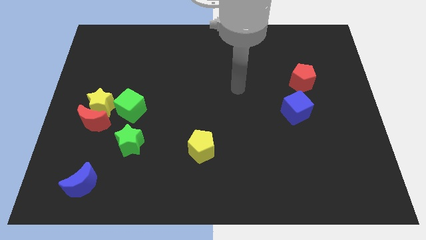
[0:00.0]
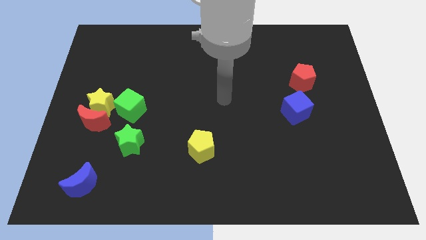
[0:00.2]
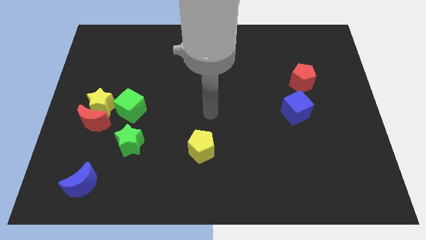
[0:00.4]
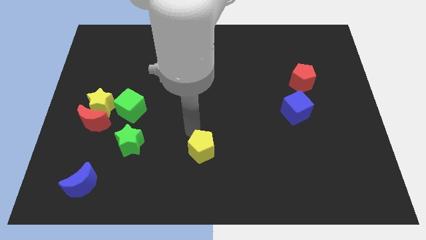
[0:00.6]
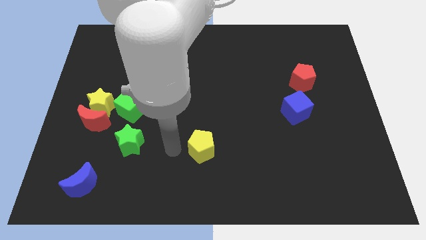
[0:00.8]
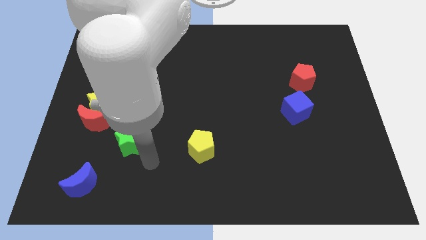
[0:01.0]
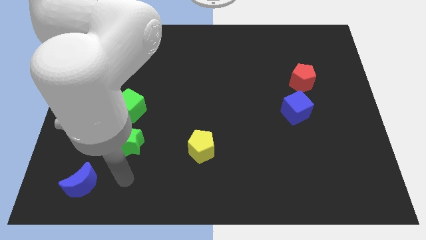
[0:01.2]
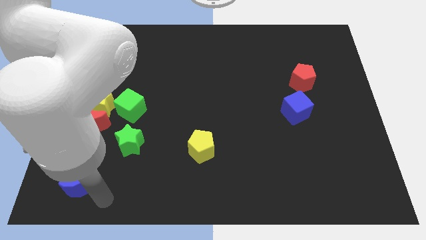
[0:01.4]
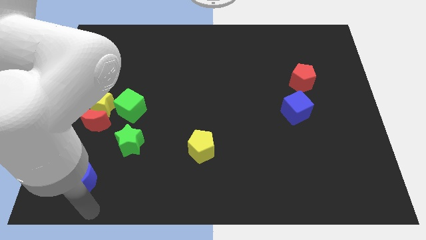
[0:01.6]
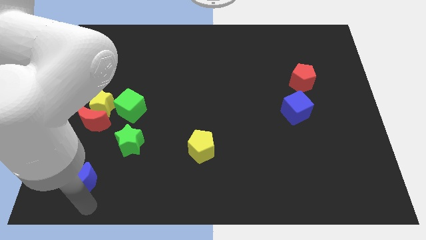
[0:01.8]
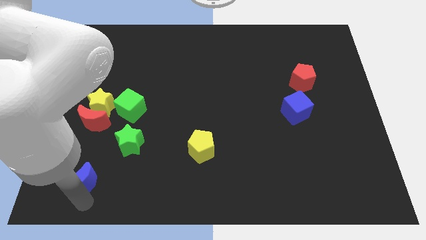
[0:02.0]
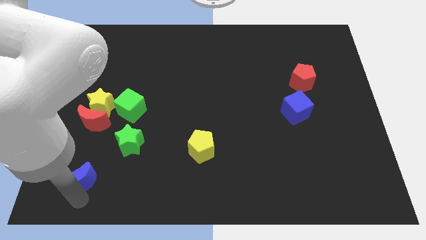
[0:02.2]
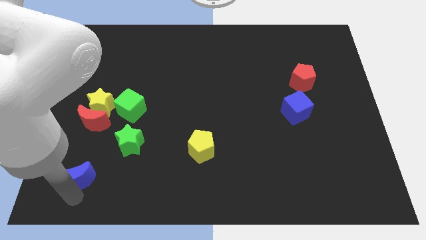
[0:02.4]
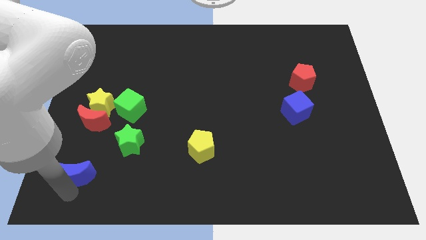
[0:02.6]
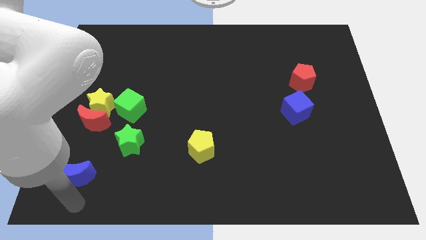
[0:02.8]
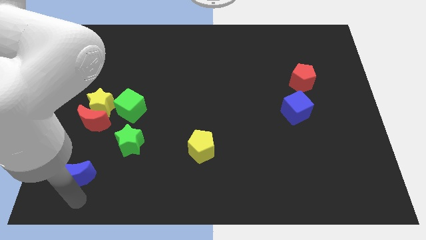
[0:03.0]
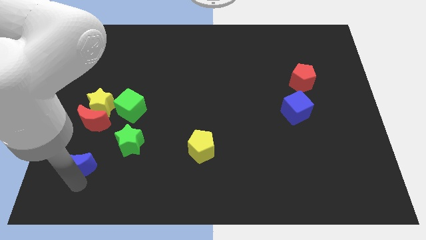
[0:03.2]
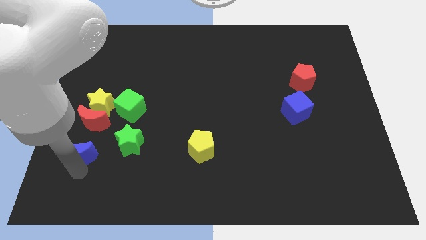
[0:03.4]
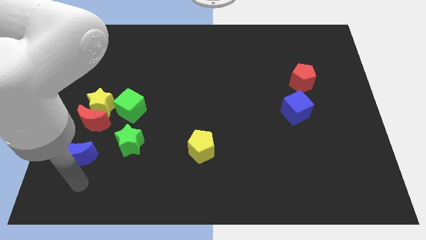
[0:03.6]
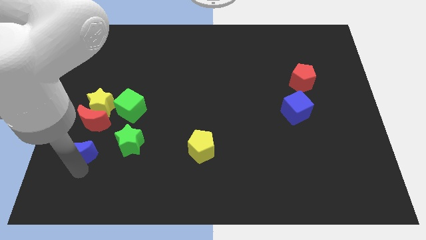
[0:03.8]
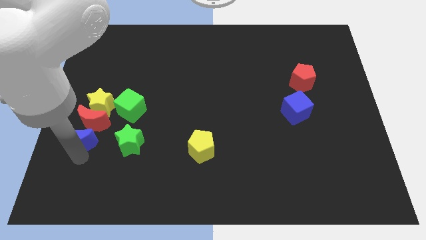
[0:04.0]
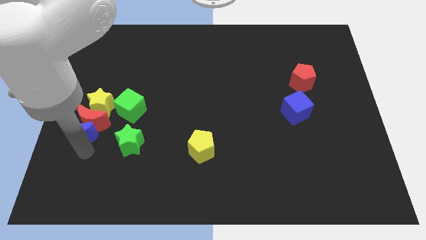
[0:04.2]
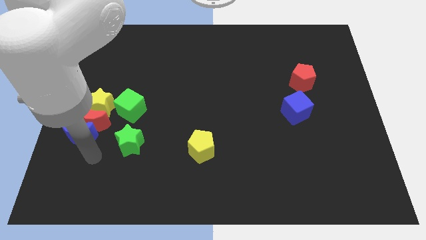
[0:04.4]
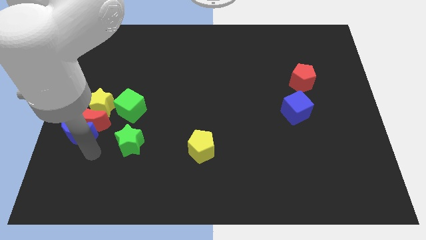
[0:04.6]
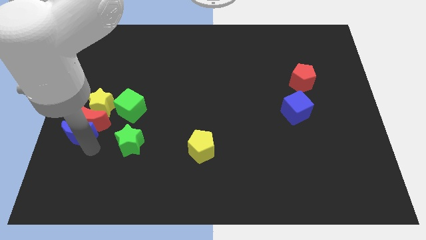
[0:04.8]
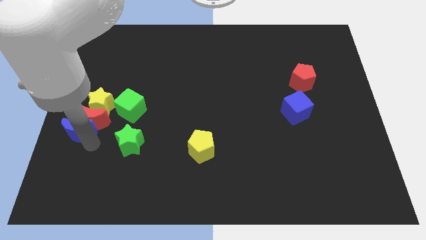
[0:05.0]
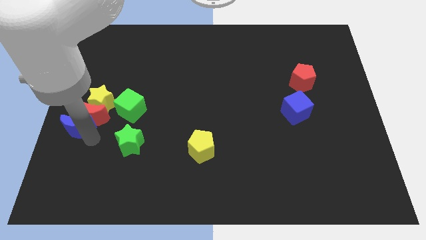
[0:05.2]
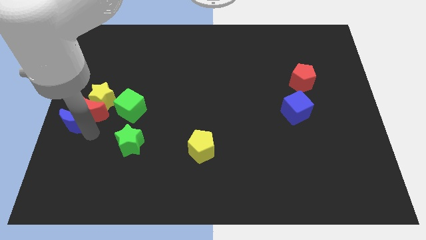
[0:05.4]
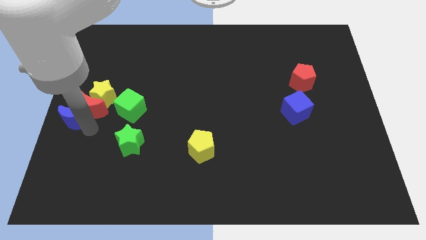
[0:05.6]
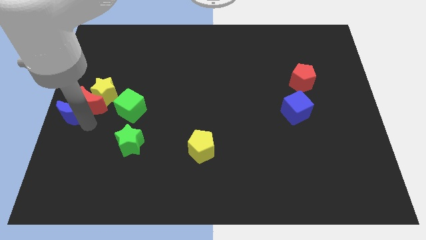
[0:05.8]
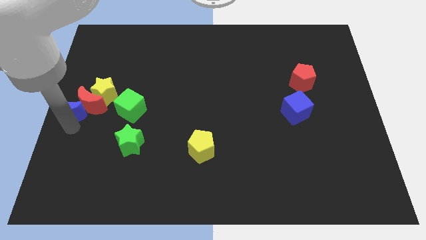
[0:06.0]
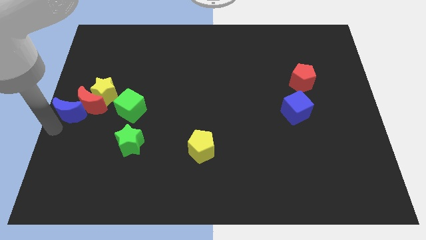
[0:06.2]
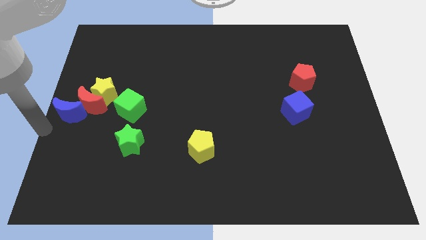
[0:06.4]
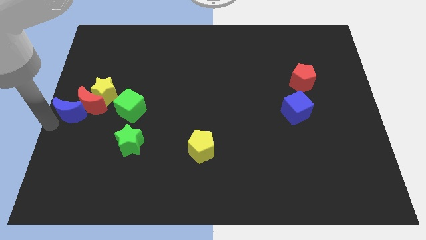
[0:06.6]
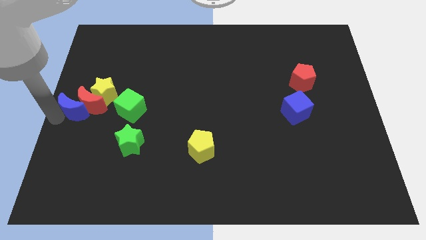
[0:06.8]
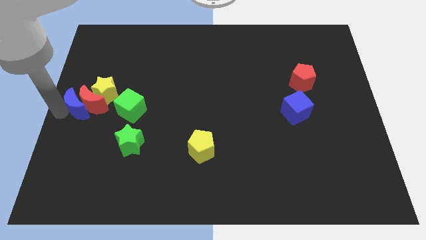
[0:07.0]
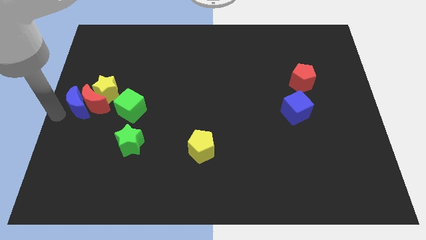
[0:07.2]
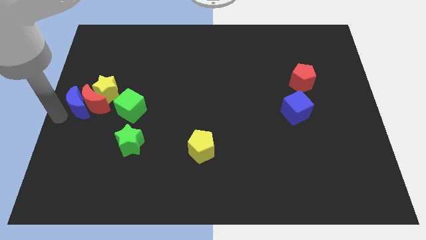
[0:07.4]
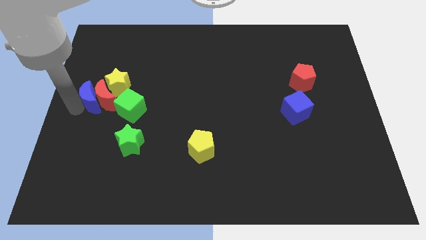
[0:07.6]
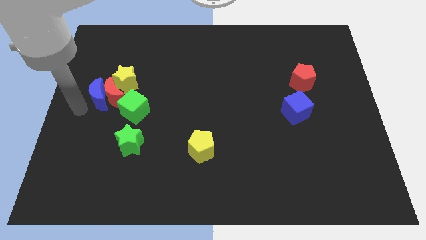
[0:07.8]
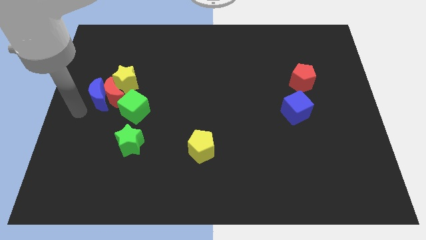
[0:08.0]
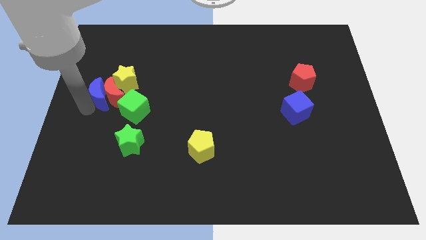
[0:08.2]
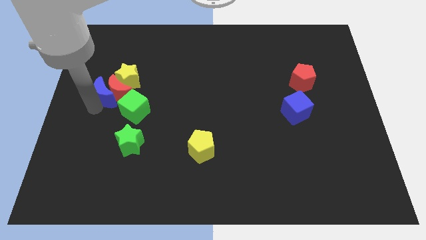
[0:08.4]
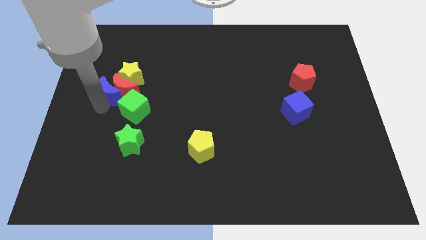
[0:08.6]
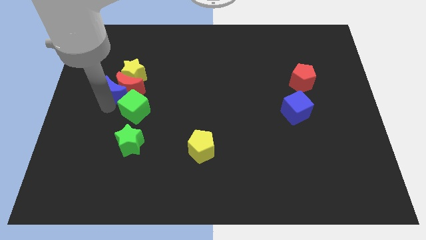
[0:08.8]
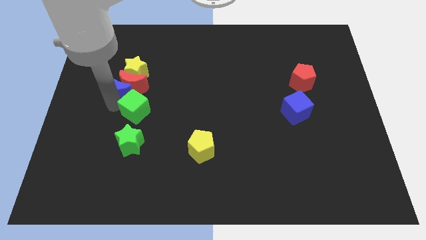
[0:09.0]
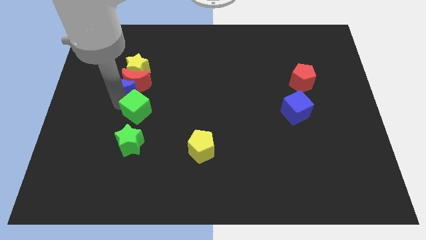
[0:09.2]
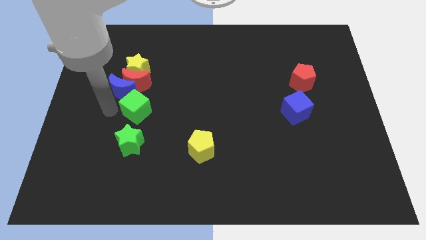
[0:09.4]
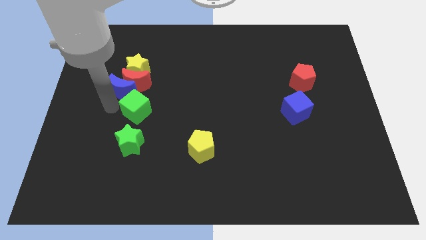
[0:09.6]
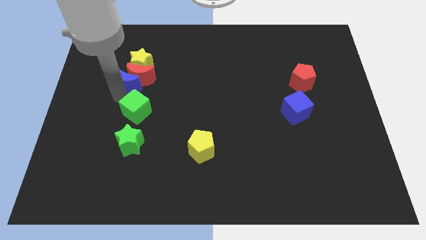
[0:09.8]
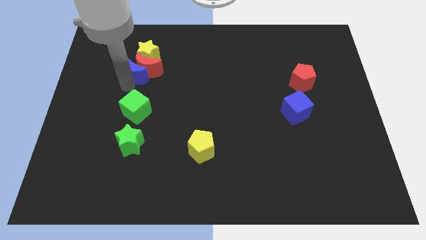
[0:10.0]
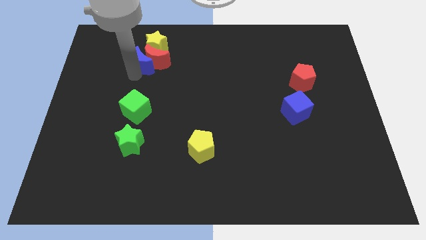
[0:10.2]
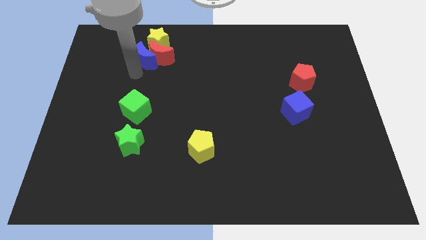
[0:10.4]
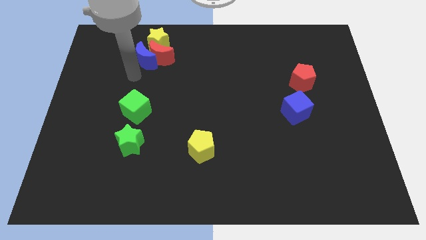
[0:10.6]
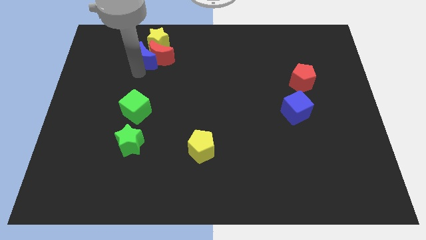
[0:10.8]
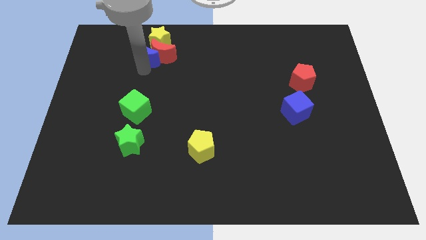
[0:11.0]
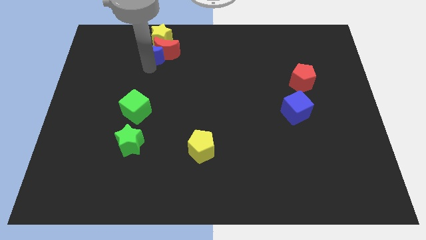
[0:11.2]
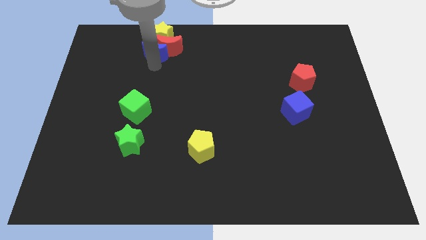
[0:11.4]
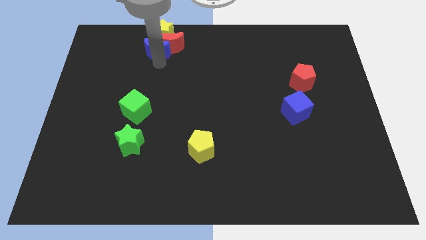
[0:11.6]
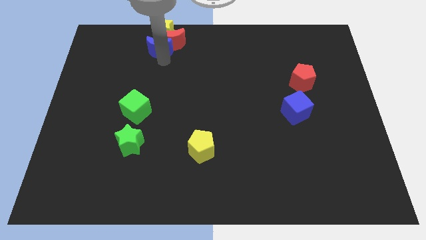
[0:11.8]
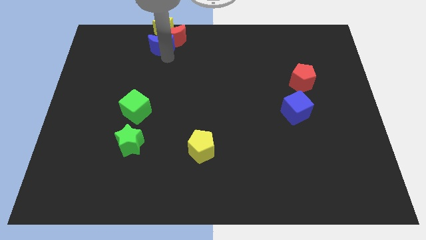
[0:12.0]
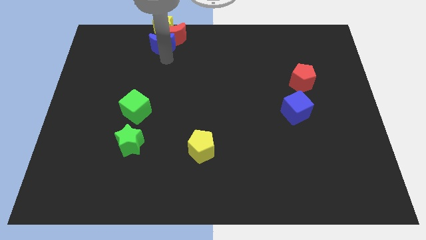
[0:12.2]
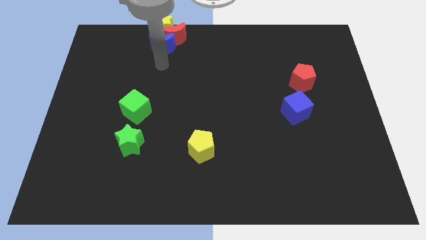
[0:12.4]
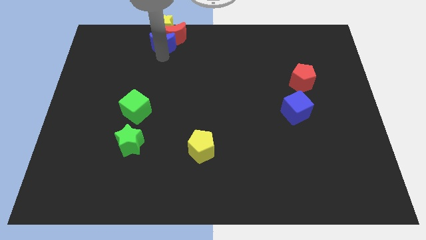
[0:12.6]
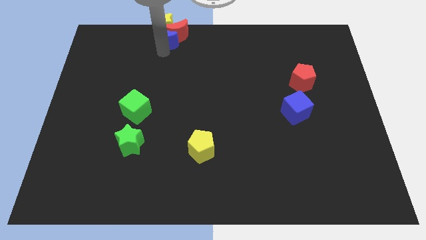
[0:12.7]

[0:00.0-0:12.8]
push the blue moon close to the yellow star

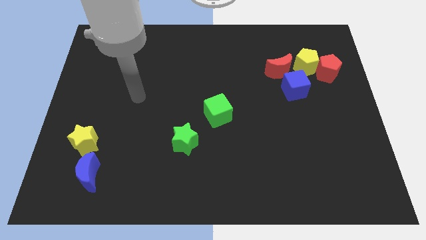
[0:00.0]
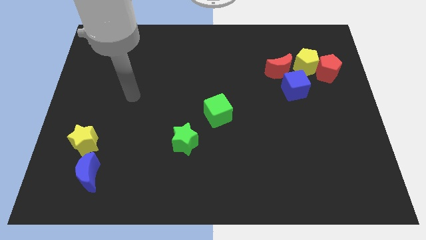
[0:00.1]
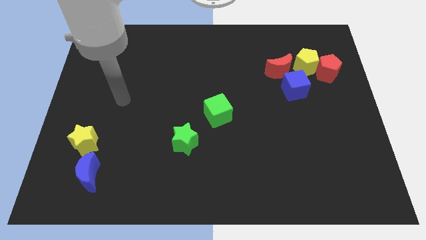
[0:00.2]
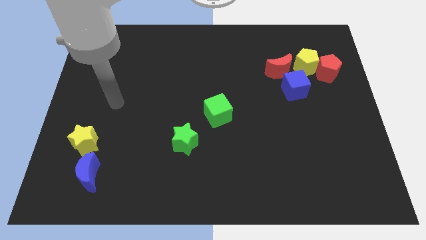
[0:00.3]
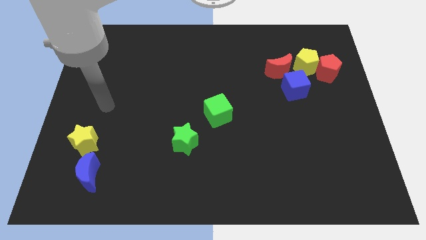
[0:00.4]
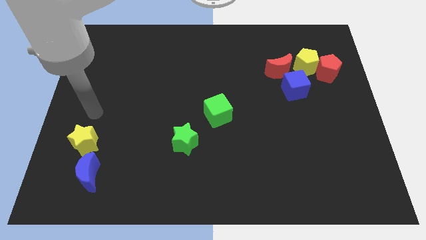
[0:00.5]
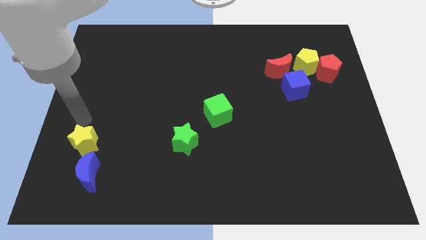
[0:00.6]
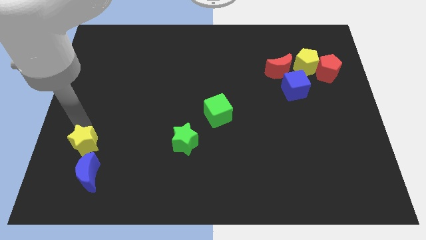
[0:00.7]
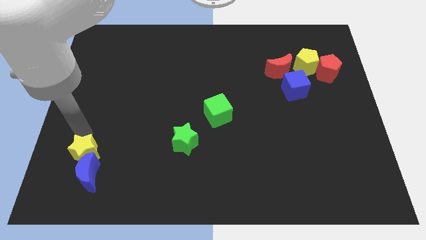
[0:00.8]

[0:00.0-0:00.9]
push the yellow star to the blue moon
